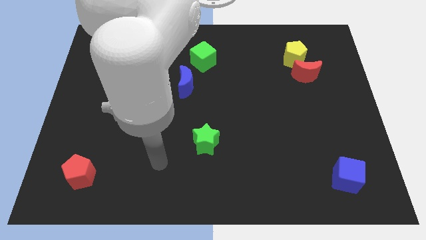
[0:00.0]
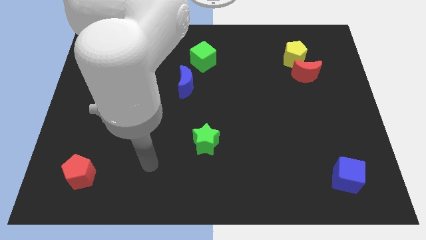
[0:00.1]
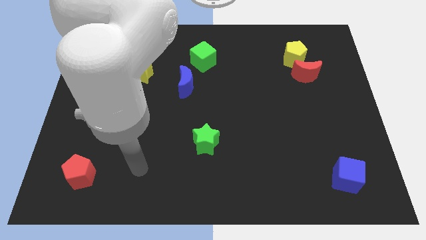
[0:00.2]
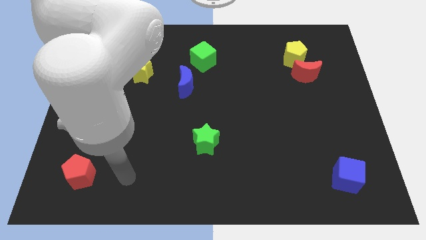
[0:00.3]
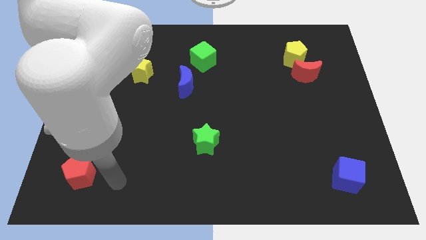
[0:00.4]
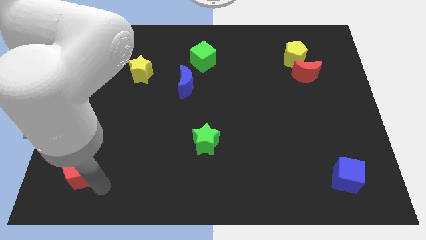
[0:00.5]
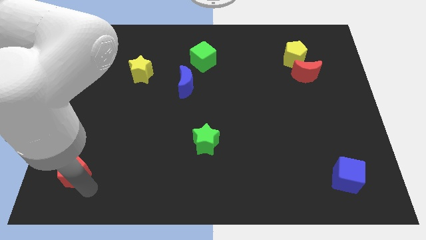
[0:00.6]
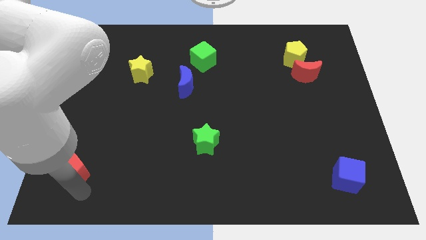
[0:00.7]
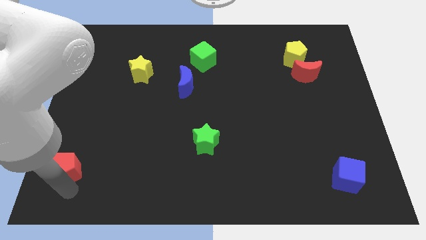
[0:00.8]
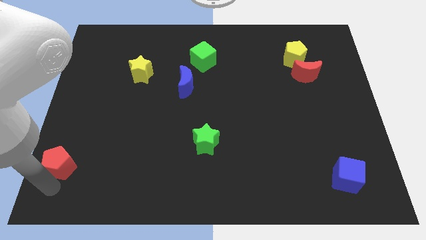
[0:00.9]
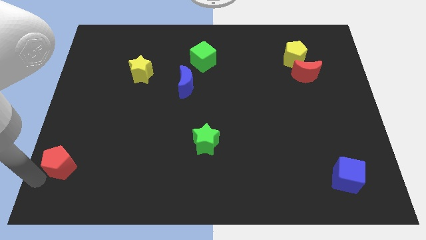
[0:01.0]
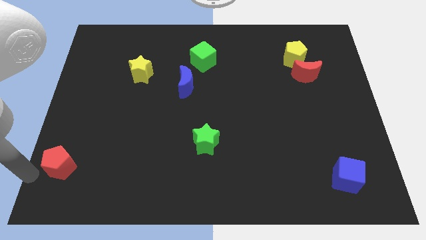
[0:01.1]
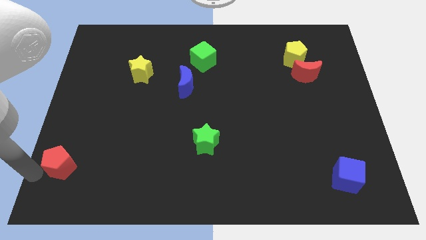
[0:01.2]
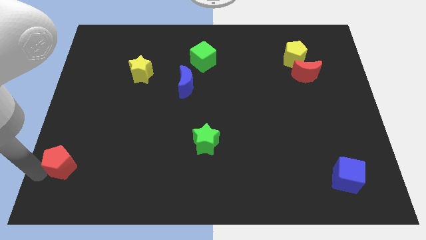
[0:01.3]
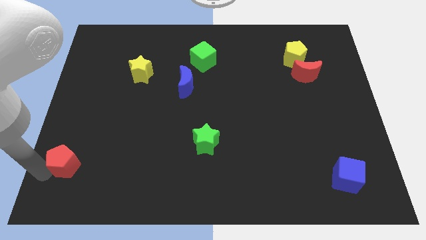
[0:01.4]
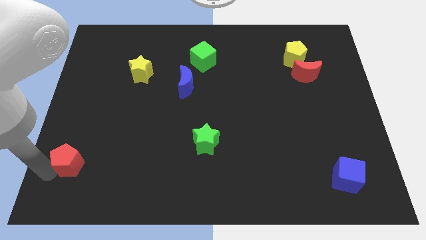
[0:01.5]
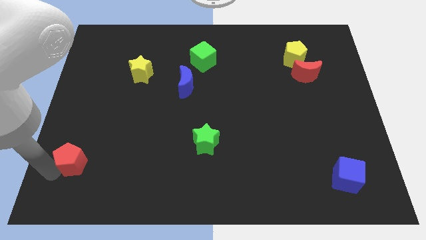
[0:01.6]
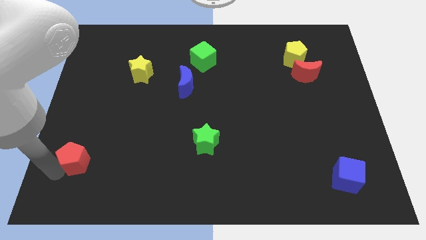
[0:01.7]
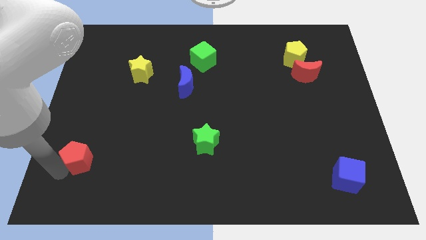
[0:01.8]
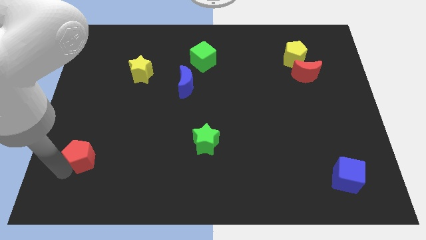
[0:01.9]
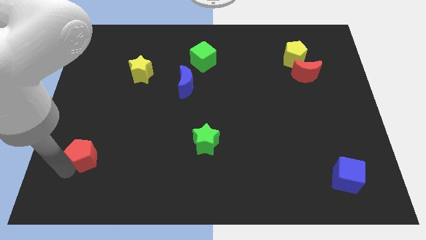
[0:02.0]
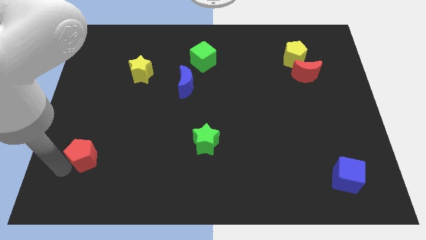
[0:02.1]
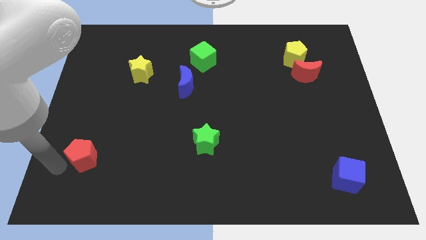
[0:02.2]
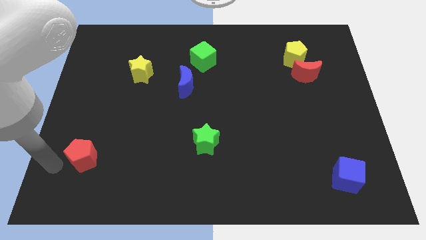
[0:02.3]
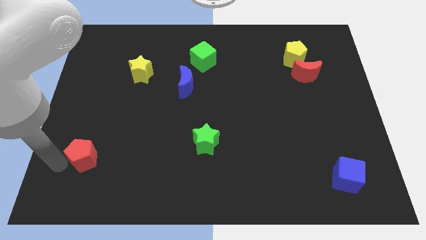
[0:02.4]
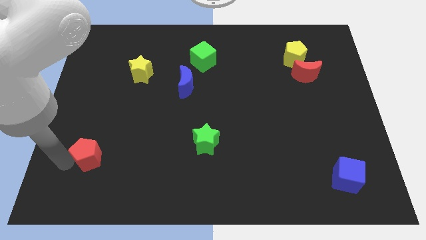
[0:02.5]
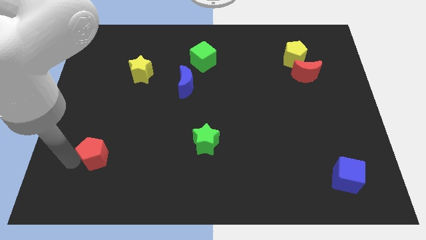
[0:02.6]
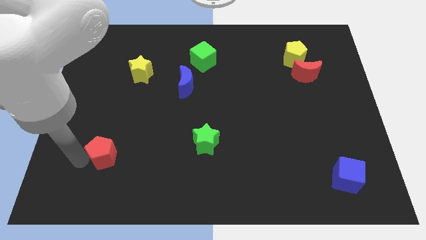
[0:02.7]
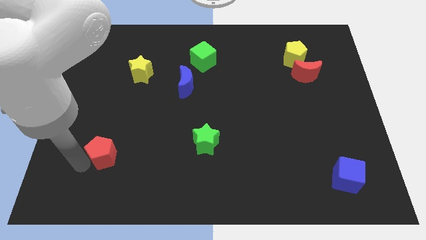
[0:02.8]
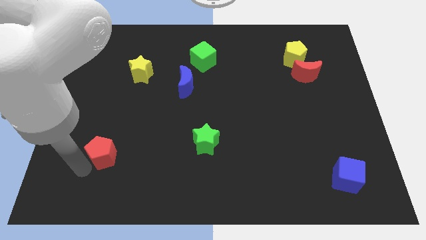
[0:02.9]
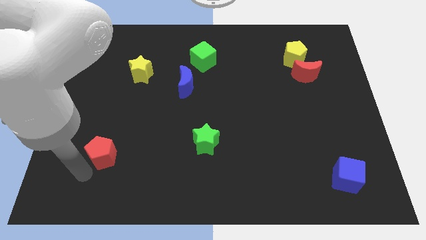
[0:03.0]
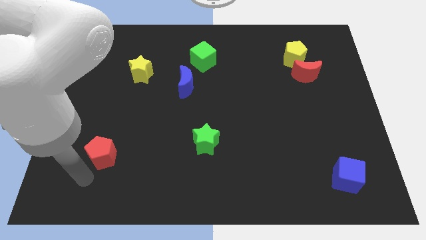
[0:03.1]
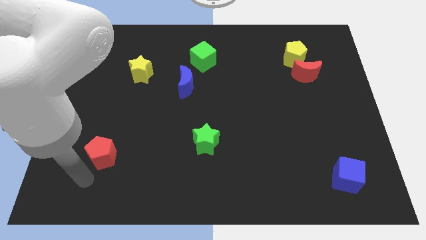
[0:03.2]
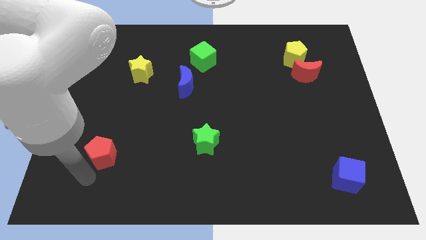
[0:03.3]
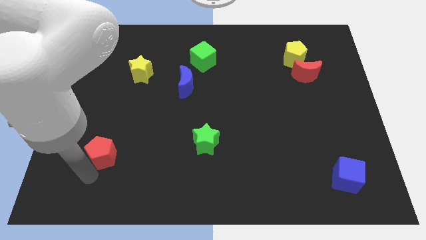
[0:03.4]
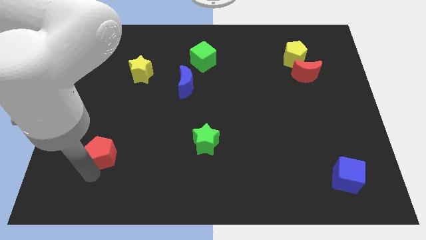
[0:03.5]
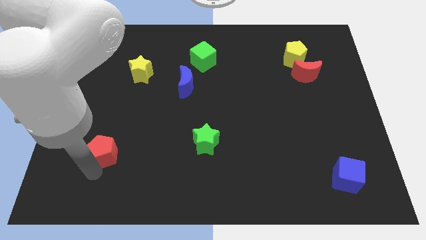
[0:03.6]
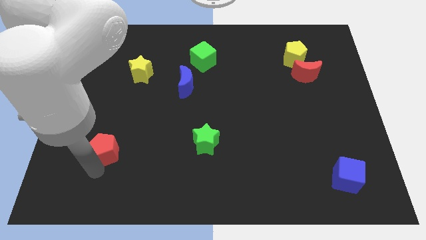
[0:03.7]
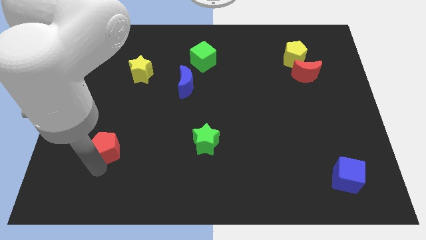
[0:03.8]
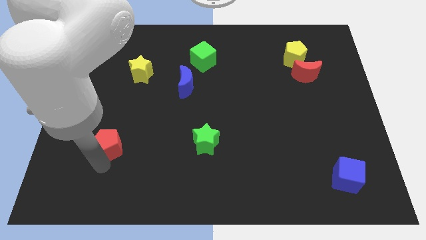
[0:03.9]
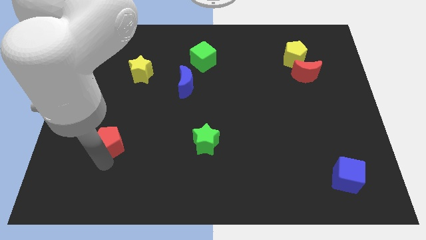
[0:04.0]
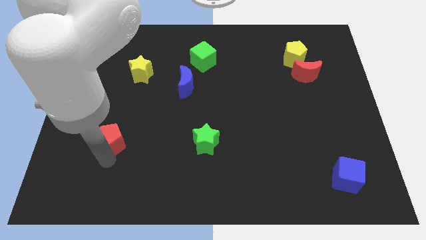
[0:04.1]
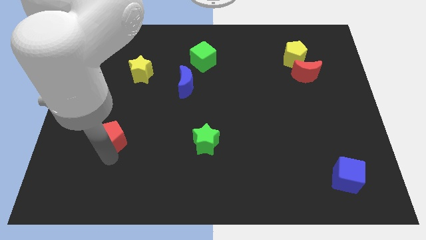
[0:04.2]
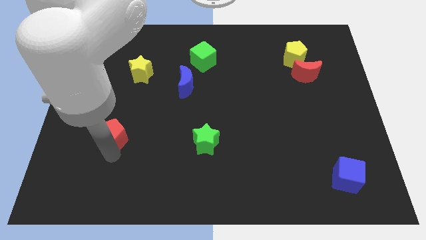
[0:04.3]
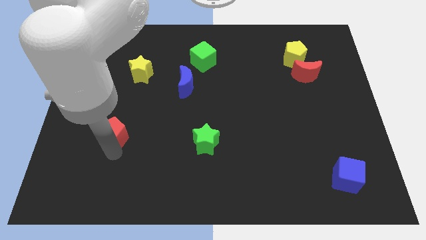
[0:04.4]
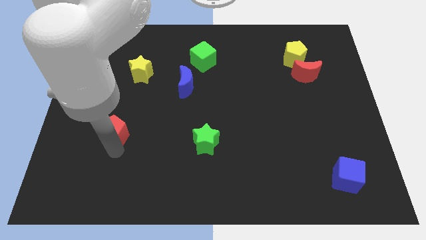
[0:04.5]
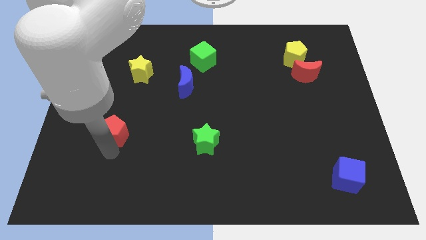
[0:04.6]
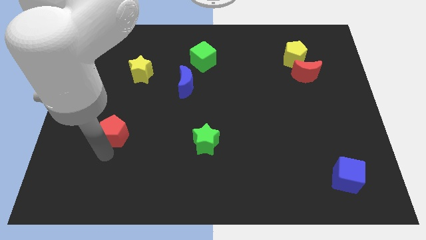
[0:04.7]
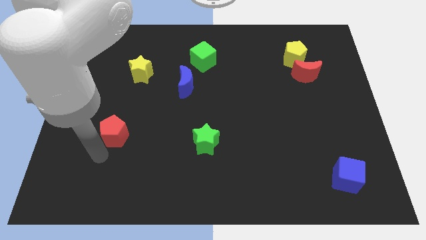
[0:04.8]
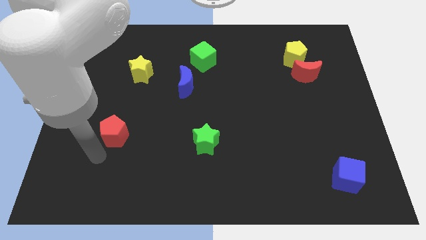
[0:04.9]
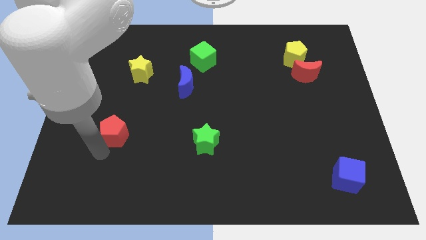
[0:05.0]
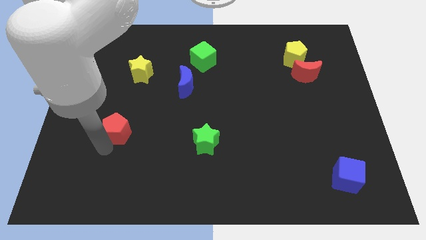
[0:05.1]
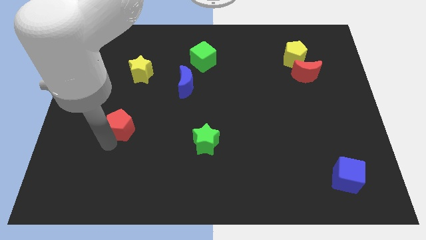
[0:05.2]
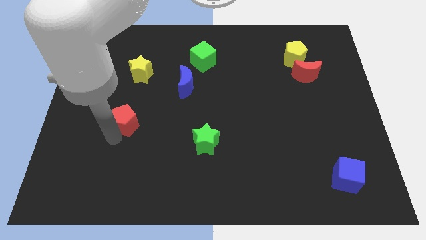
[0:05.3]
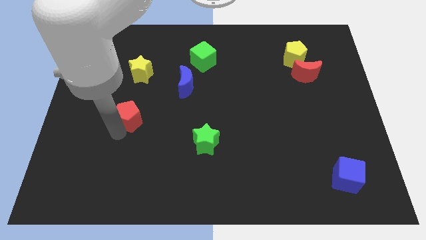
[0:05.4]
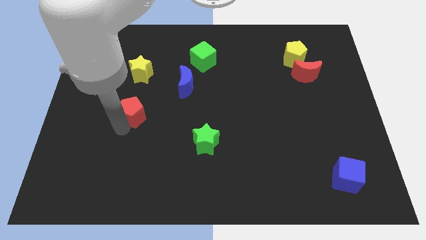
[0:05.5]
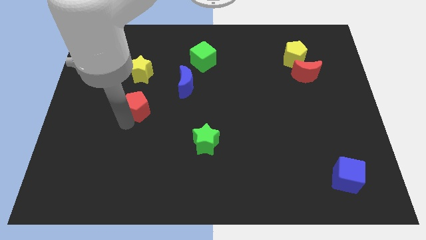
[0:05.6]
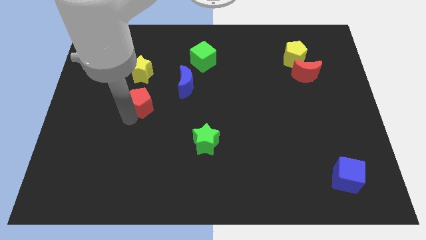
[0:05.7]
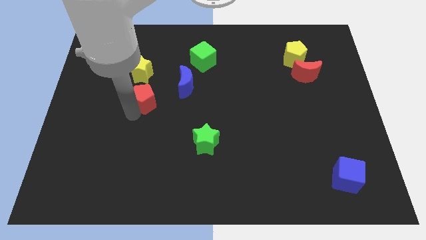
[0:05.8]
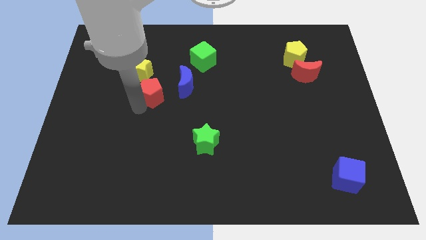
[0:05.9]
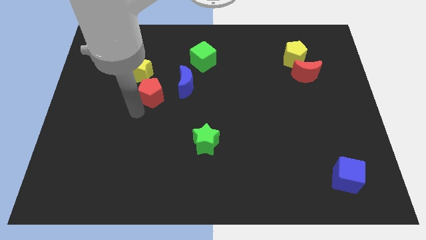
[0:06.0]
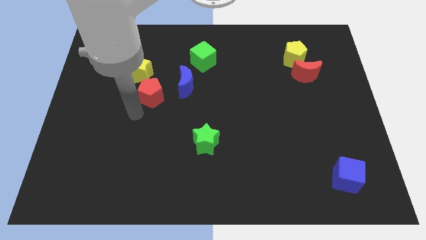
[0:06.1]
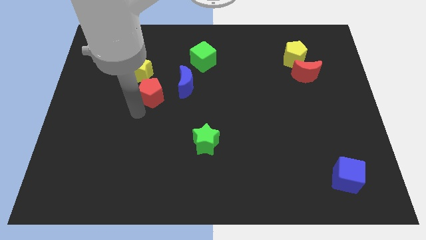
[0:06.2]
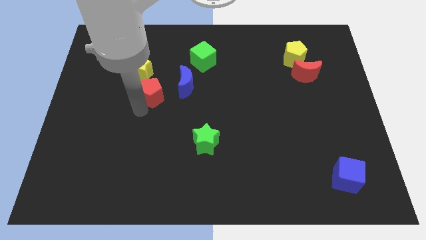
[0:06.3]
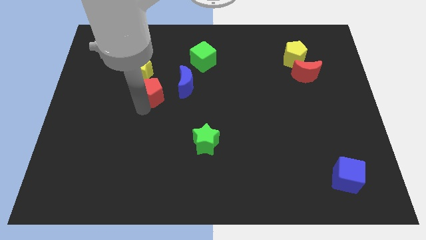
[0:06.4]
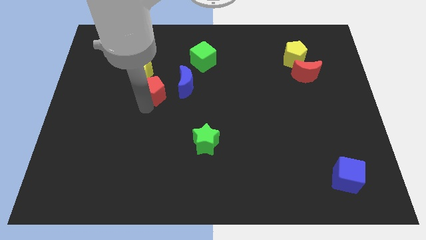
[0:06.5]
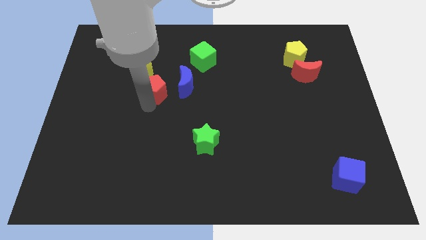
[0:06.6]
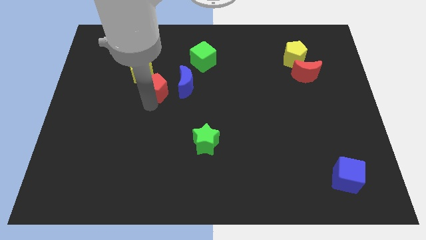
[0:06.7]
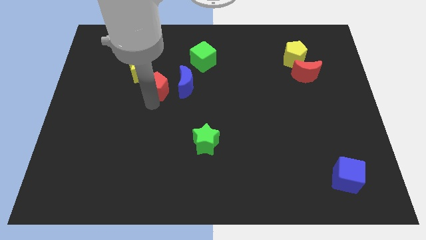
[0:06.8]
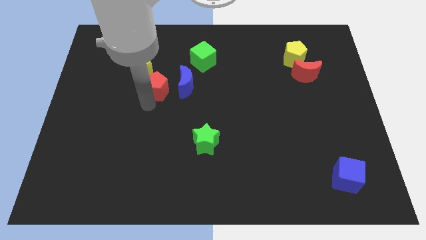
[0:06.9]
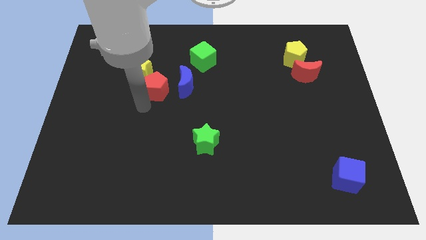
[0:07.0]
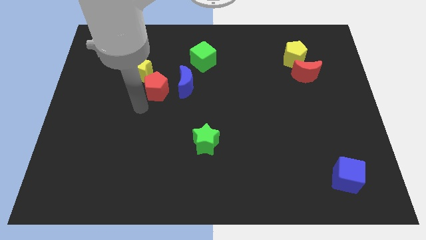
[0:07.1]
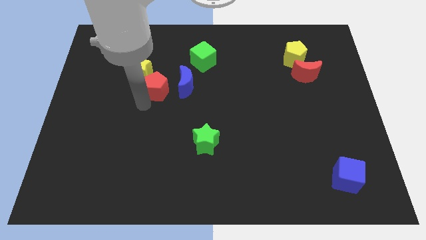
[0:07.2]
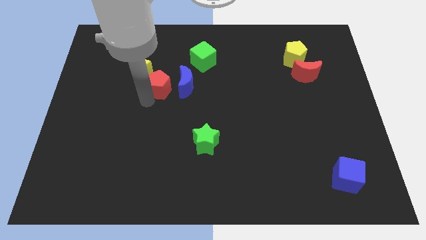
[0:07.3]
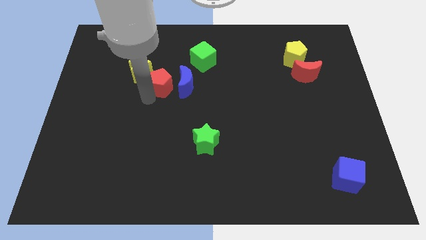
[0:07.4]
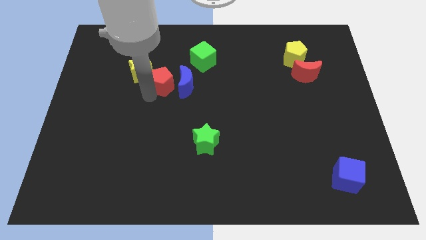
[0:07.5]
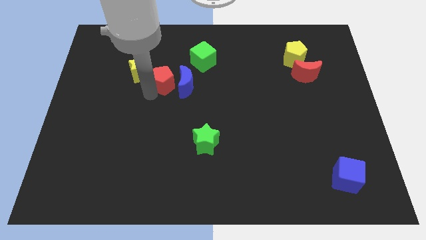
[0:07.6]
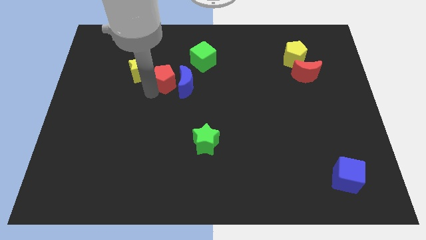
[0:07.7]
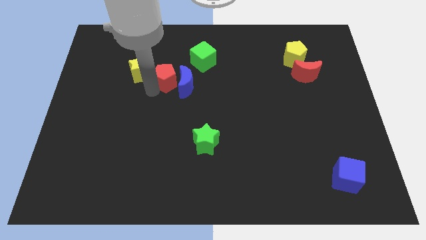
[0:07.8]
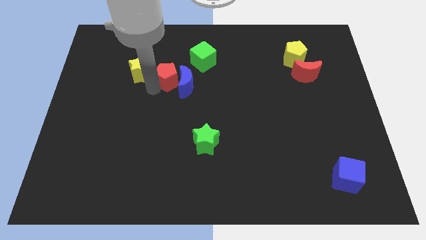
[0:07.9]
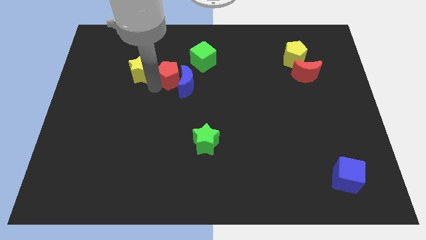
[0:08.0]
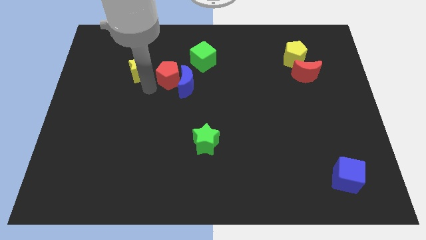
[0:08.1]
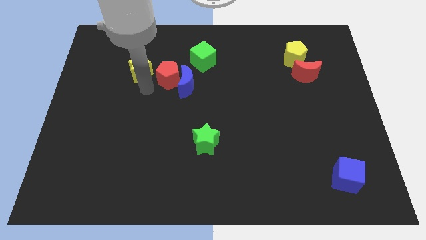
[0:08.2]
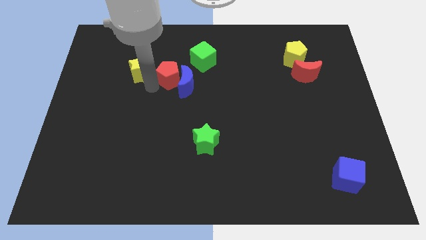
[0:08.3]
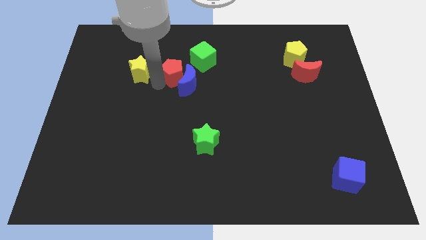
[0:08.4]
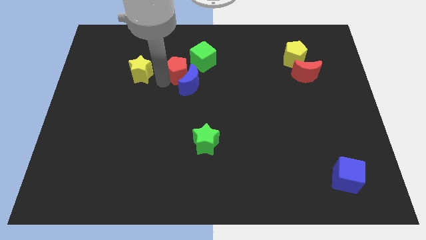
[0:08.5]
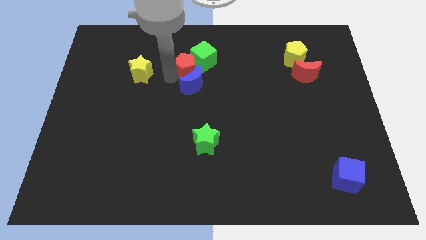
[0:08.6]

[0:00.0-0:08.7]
push the red pentagon towards the green cube
